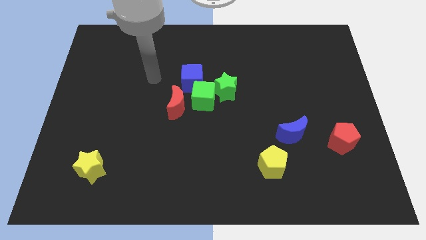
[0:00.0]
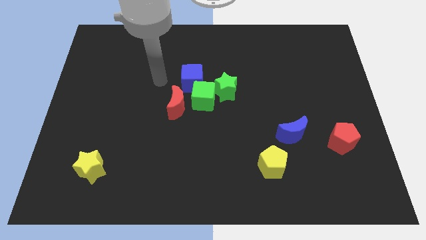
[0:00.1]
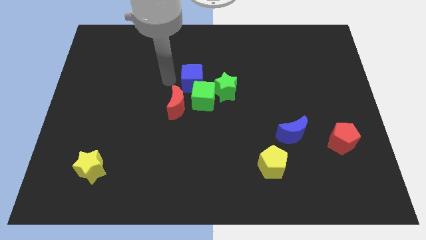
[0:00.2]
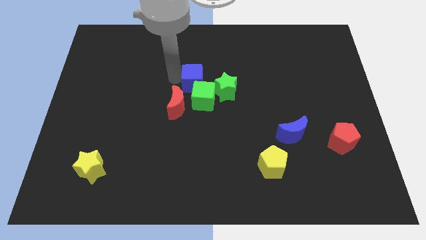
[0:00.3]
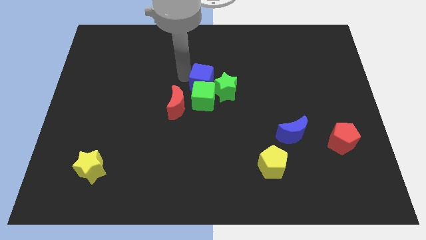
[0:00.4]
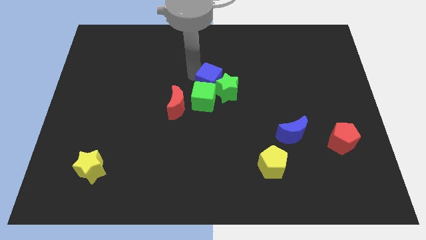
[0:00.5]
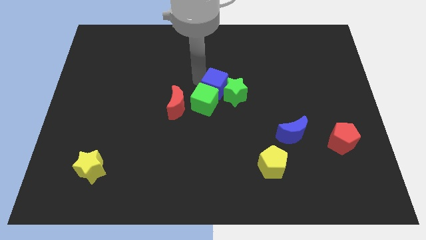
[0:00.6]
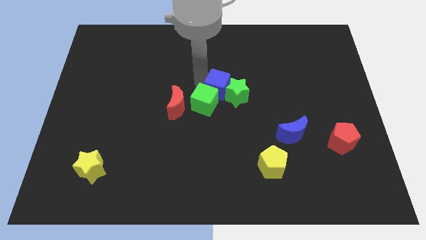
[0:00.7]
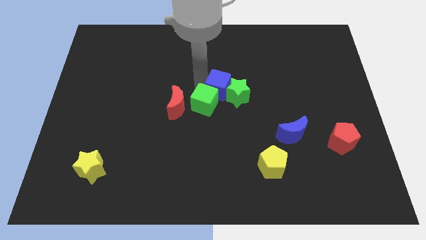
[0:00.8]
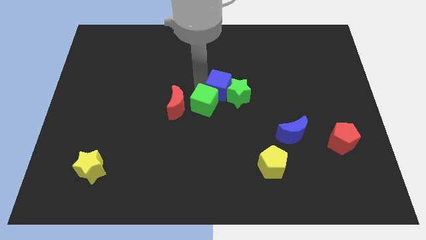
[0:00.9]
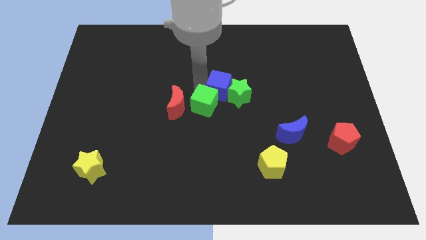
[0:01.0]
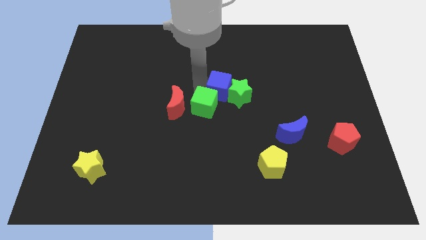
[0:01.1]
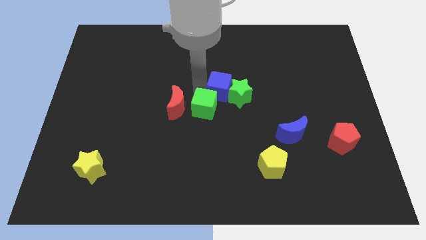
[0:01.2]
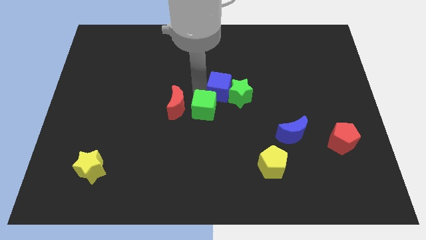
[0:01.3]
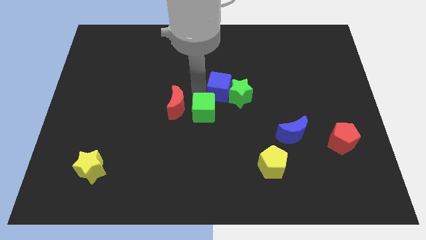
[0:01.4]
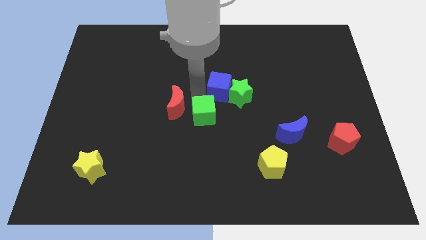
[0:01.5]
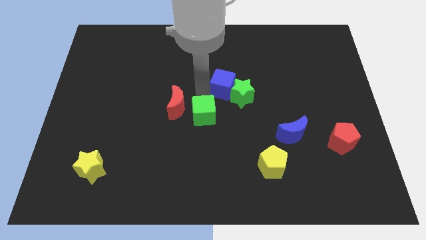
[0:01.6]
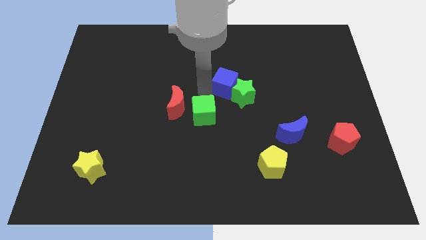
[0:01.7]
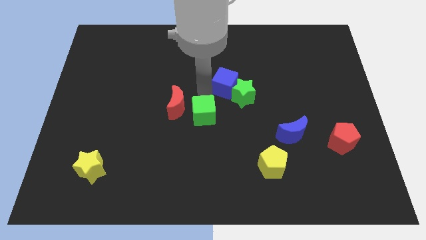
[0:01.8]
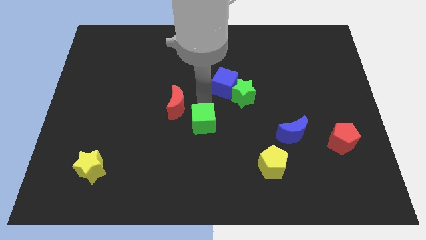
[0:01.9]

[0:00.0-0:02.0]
slightly push the green cube downwards

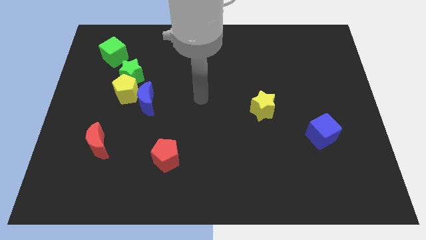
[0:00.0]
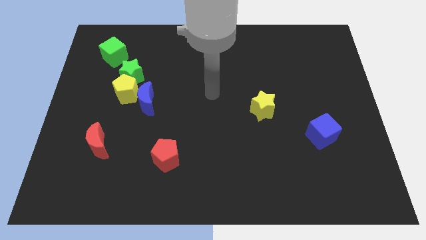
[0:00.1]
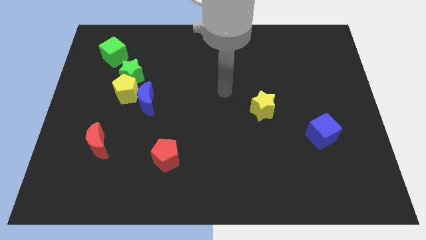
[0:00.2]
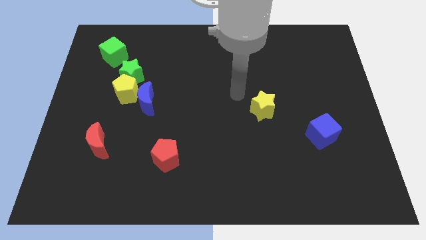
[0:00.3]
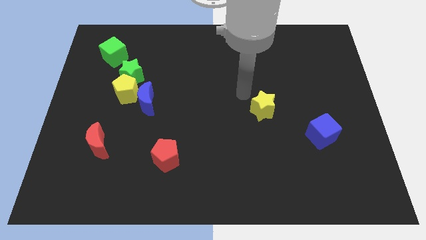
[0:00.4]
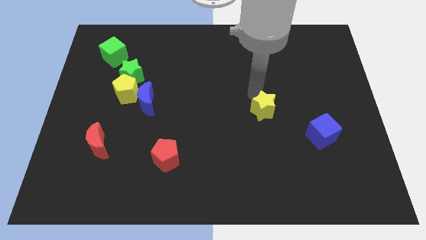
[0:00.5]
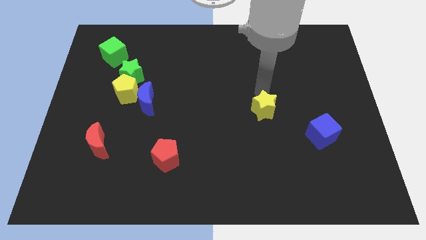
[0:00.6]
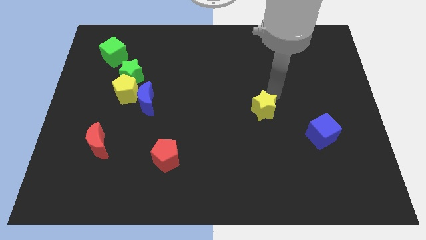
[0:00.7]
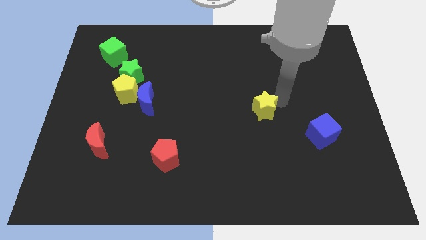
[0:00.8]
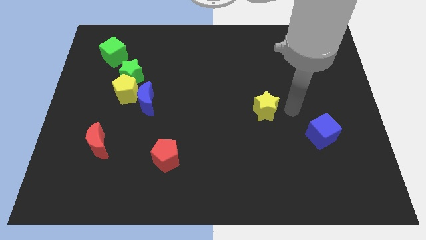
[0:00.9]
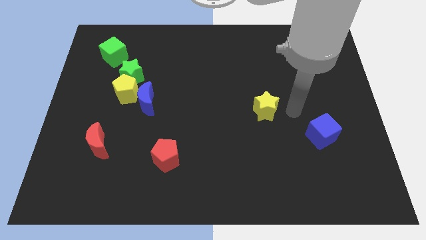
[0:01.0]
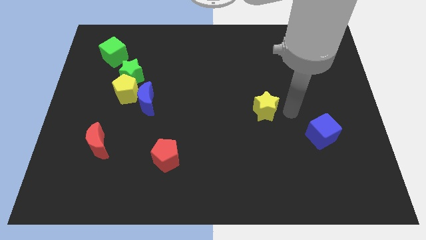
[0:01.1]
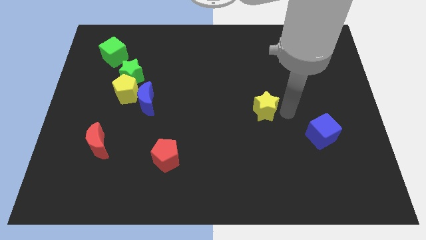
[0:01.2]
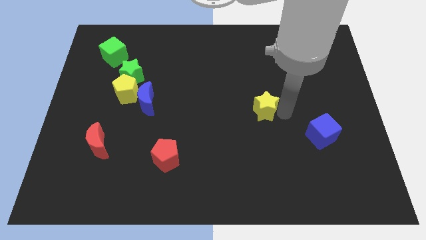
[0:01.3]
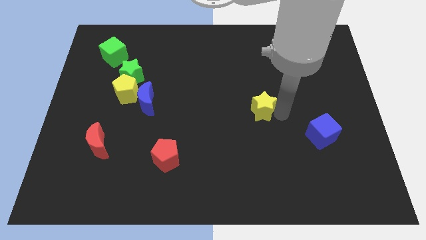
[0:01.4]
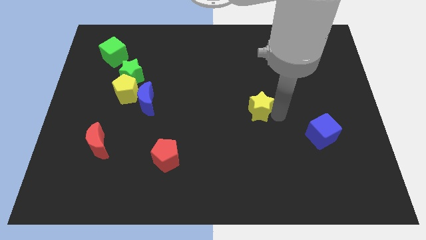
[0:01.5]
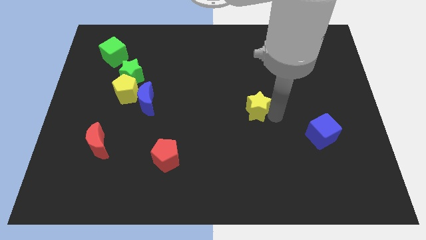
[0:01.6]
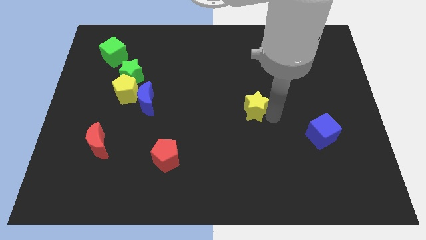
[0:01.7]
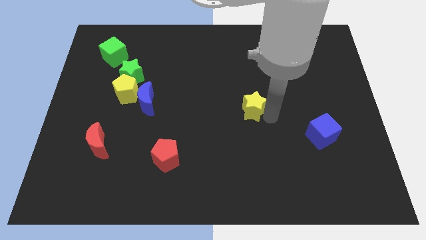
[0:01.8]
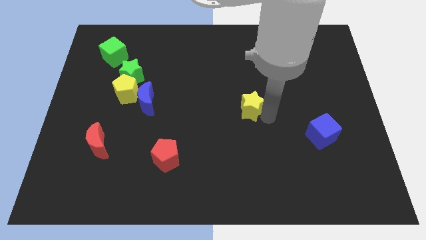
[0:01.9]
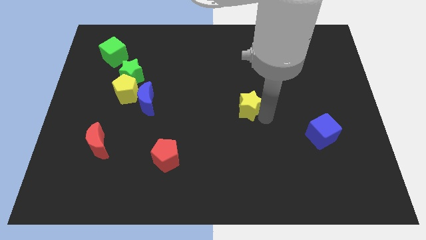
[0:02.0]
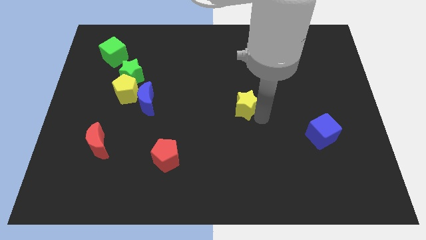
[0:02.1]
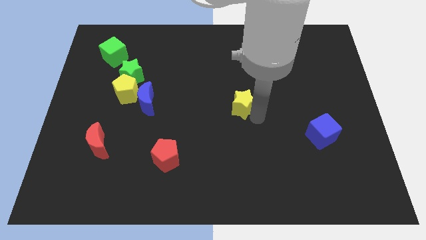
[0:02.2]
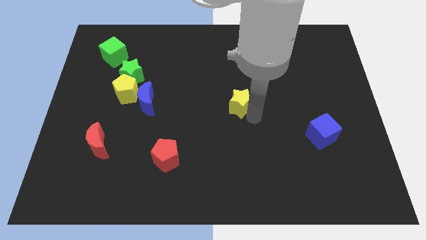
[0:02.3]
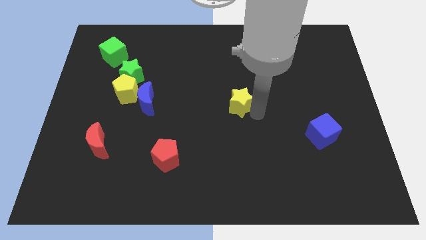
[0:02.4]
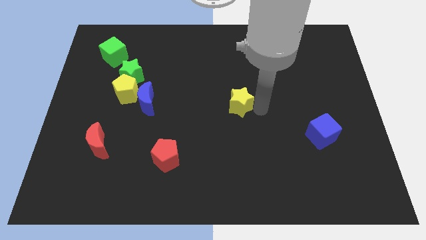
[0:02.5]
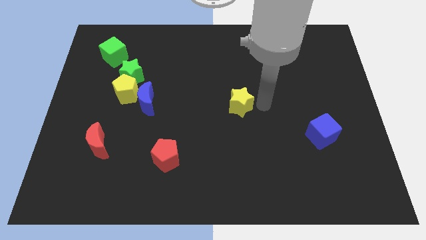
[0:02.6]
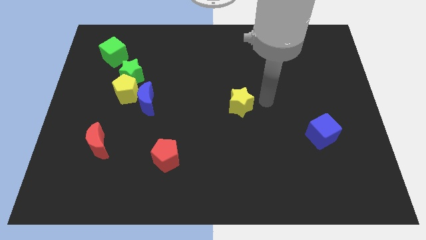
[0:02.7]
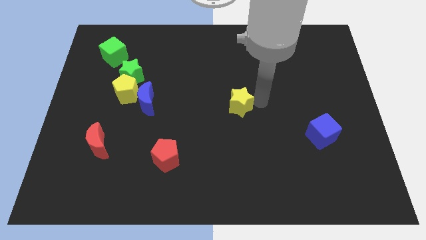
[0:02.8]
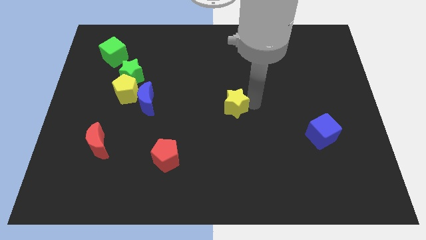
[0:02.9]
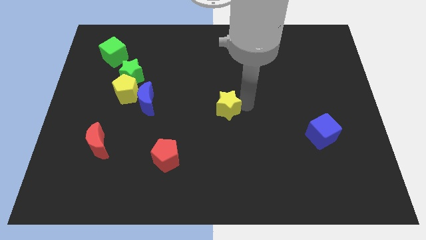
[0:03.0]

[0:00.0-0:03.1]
slightly slide the yellow star to the left

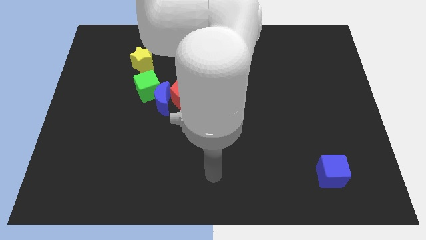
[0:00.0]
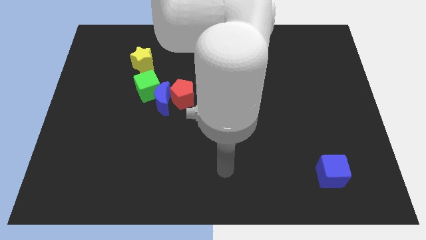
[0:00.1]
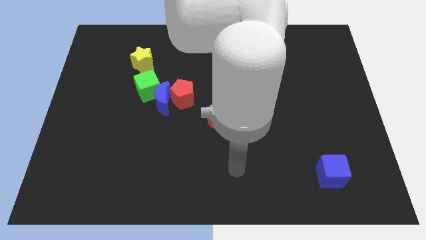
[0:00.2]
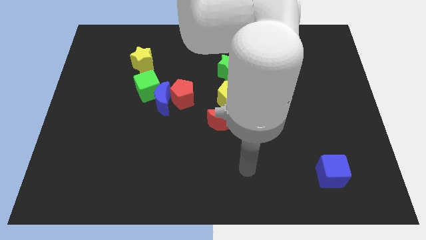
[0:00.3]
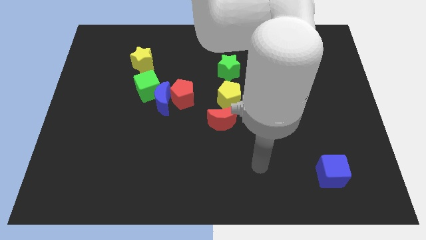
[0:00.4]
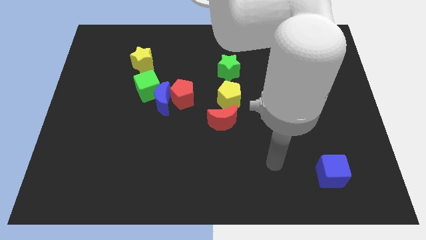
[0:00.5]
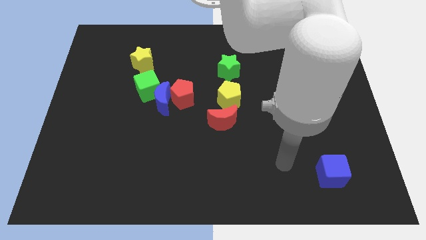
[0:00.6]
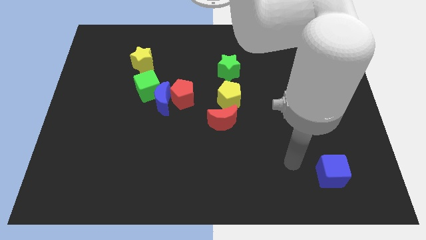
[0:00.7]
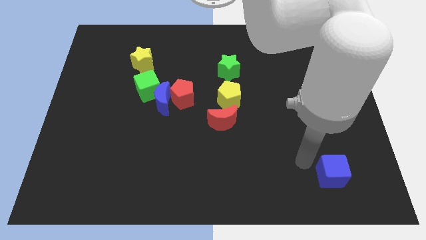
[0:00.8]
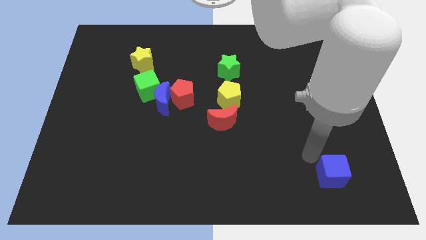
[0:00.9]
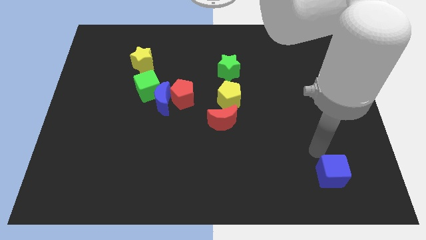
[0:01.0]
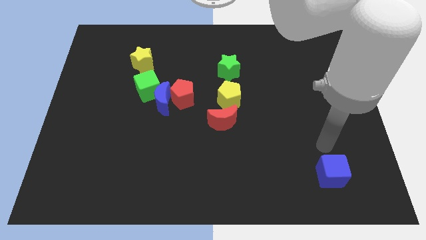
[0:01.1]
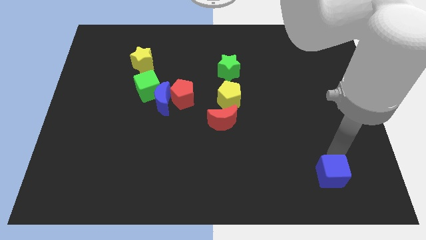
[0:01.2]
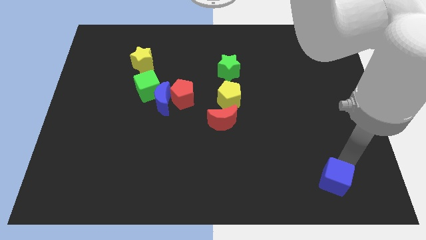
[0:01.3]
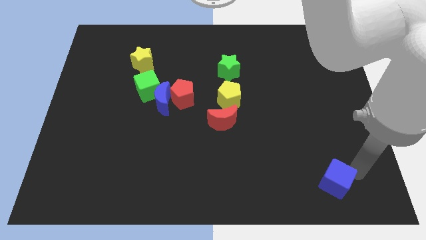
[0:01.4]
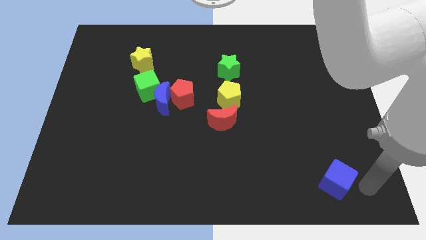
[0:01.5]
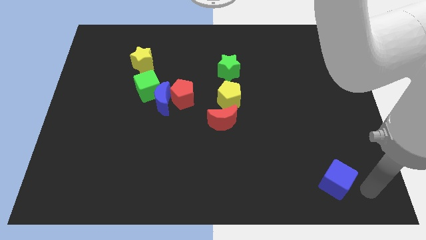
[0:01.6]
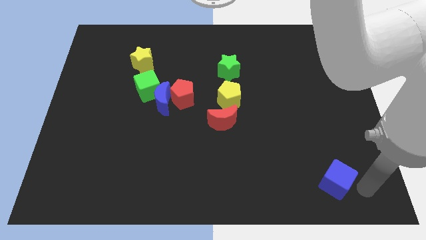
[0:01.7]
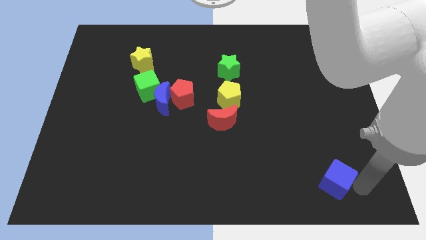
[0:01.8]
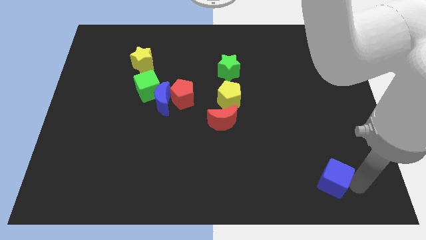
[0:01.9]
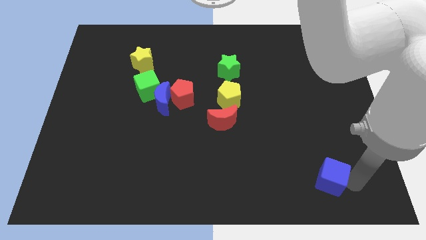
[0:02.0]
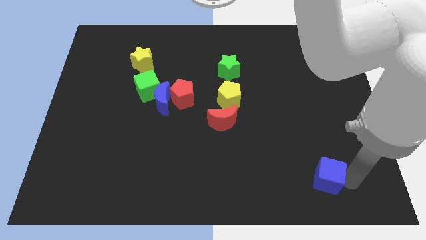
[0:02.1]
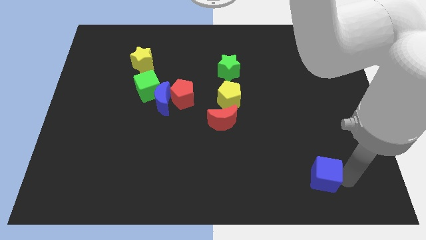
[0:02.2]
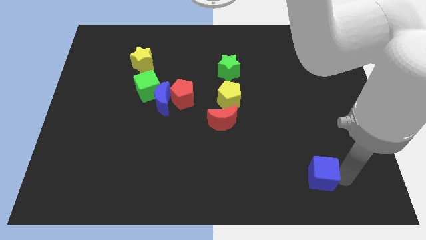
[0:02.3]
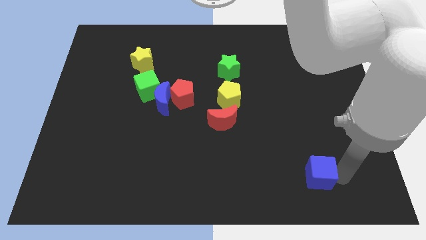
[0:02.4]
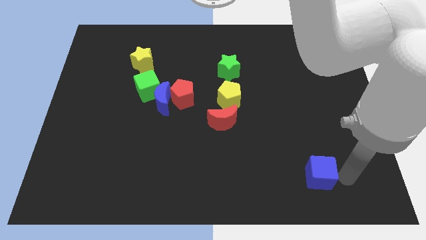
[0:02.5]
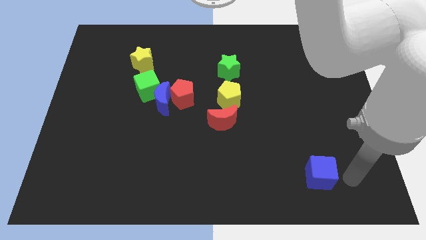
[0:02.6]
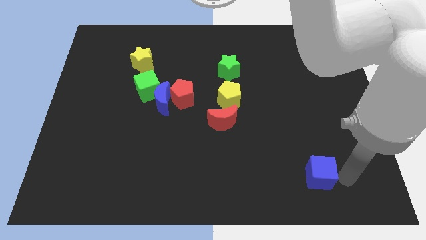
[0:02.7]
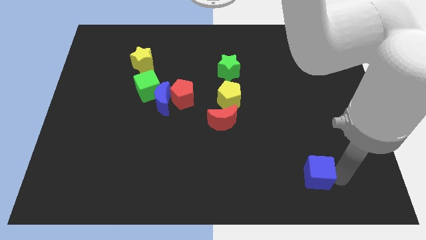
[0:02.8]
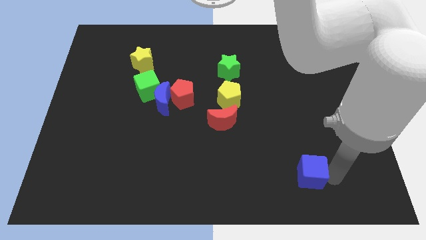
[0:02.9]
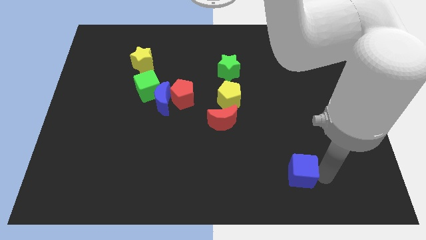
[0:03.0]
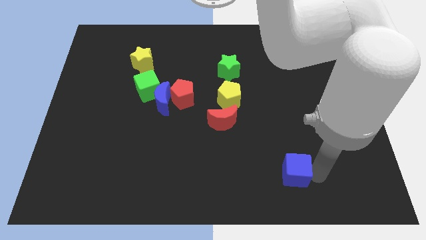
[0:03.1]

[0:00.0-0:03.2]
move the blue cube left a little bit
